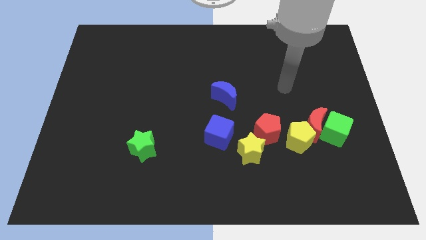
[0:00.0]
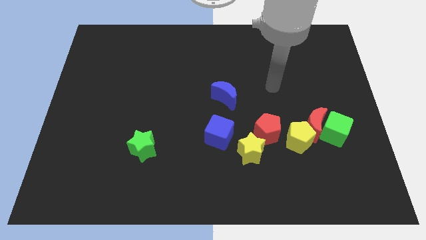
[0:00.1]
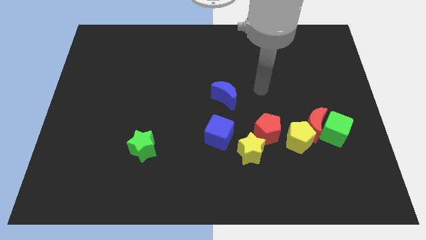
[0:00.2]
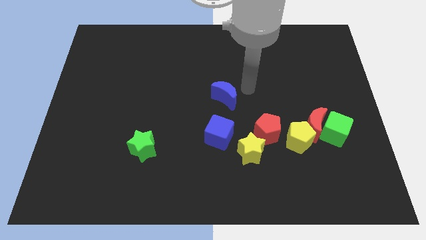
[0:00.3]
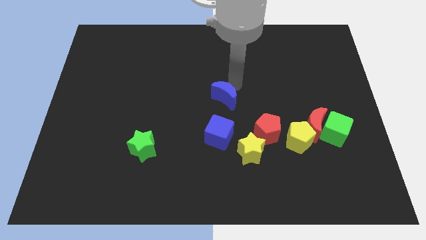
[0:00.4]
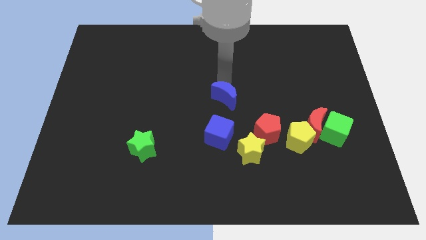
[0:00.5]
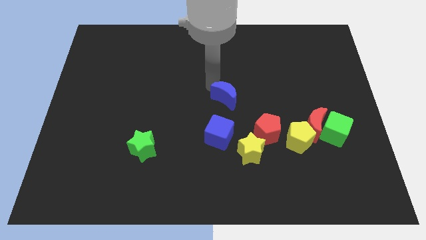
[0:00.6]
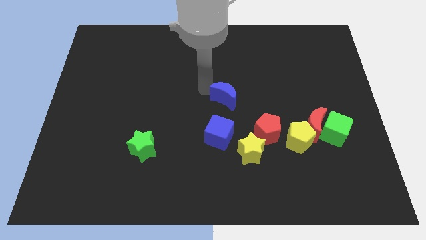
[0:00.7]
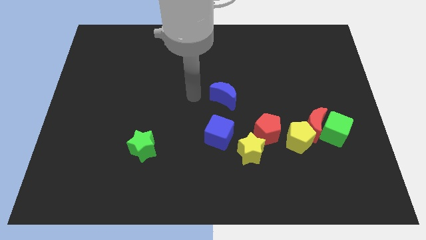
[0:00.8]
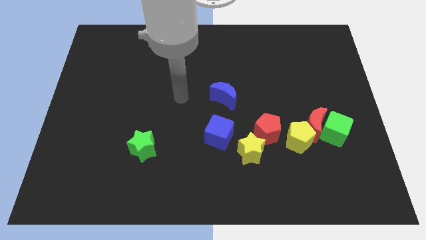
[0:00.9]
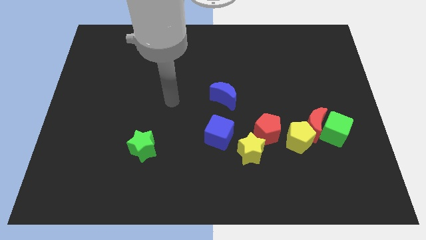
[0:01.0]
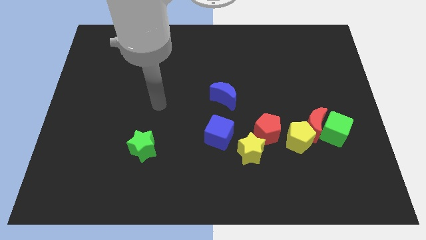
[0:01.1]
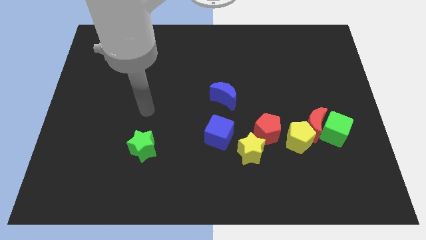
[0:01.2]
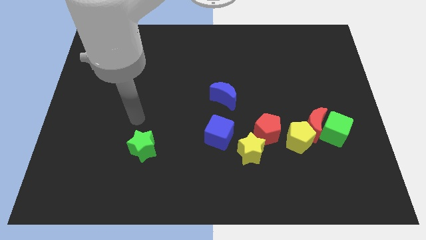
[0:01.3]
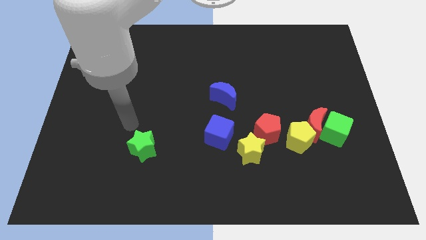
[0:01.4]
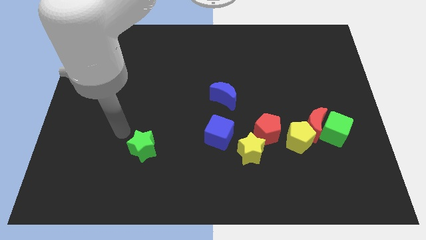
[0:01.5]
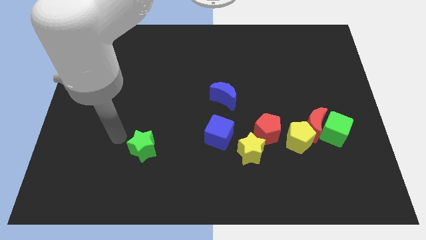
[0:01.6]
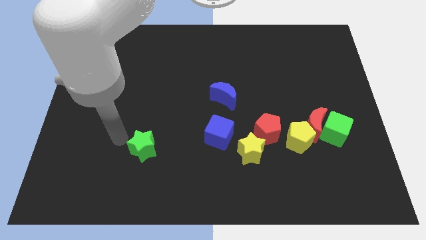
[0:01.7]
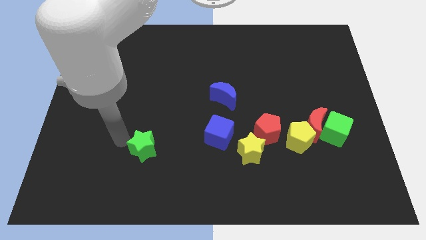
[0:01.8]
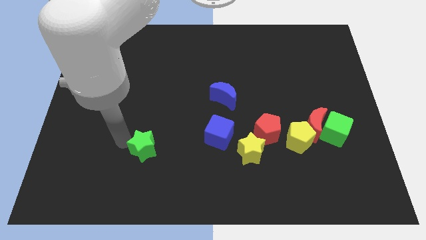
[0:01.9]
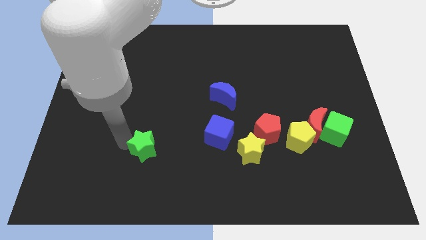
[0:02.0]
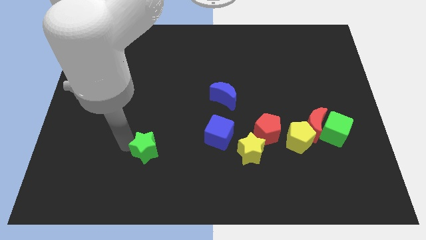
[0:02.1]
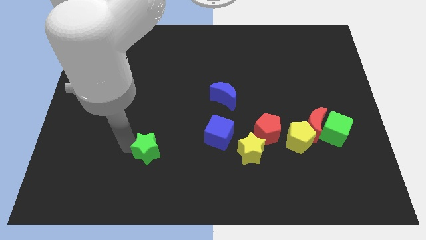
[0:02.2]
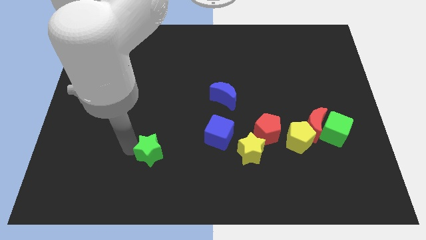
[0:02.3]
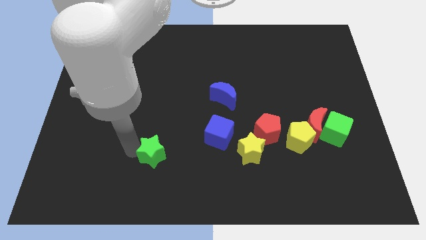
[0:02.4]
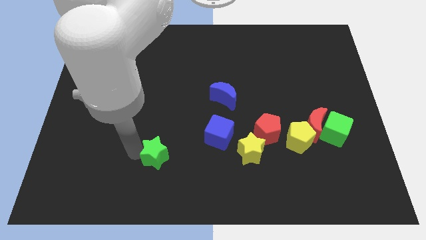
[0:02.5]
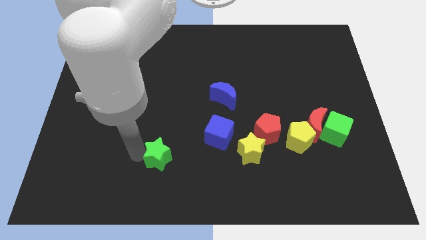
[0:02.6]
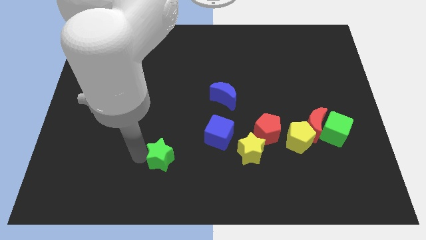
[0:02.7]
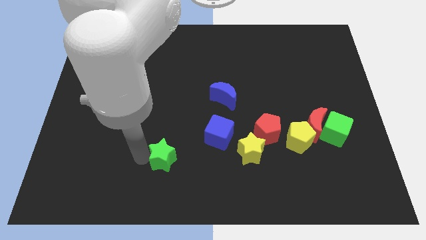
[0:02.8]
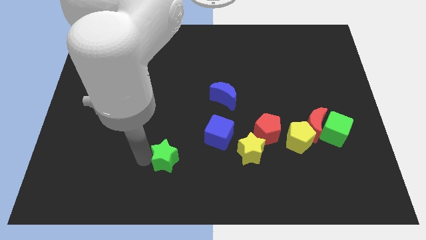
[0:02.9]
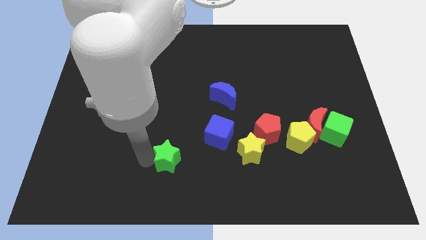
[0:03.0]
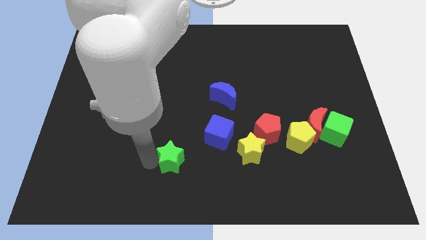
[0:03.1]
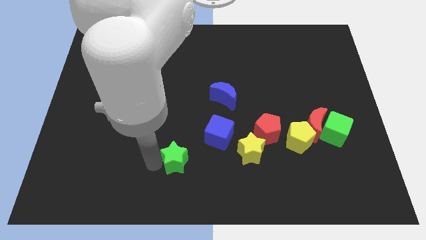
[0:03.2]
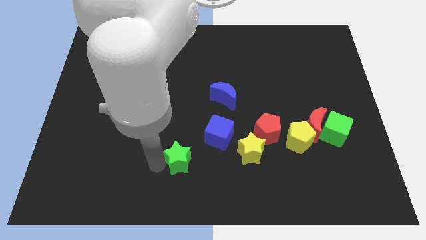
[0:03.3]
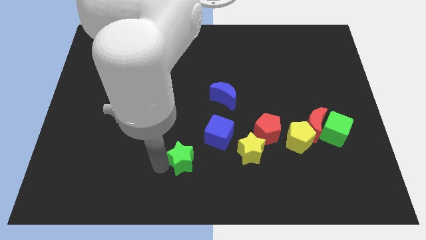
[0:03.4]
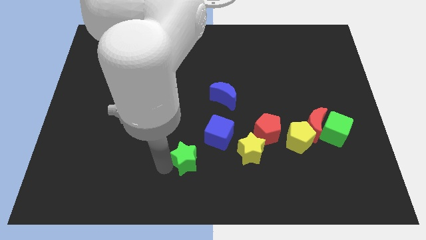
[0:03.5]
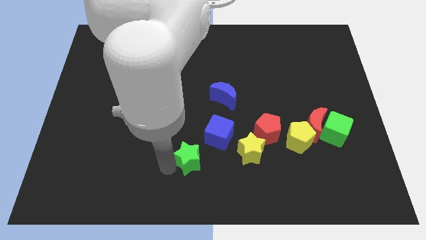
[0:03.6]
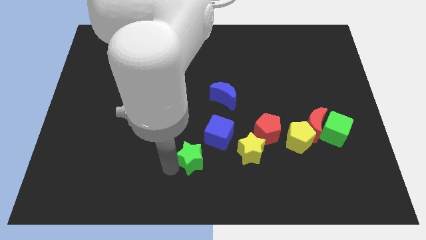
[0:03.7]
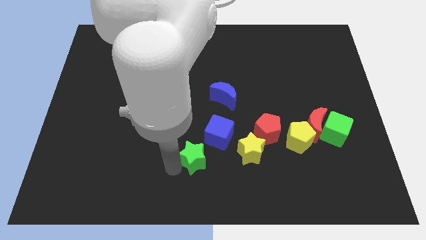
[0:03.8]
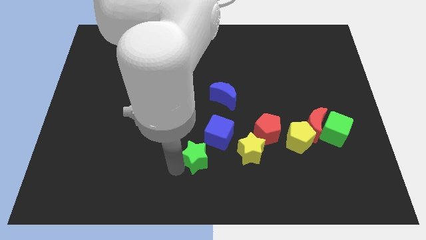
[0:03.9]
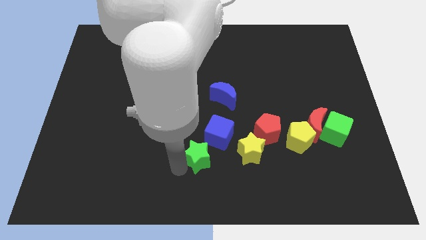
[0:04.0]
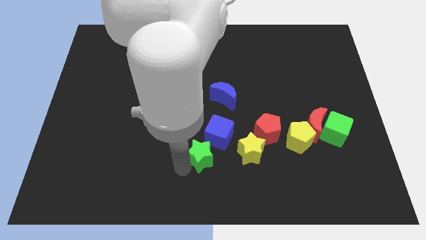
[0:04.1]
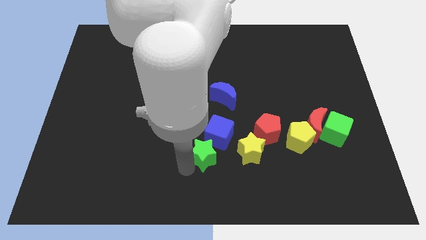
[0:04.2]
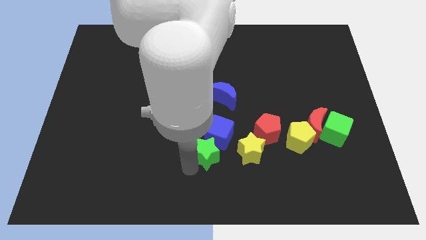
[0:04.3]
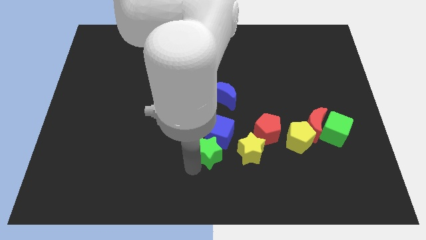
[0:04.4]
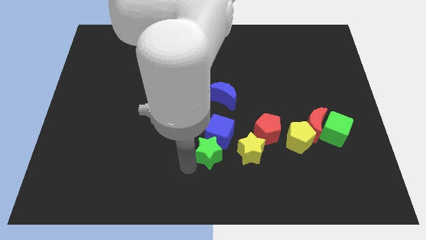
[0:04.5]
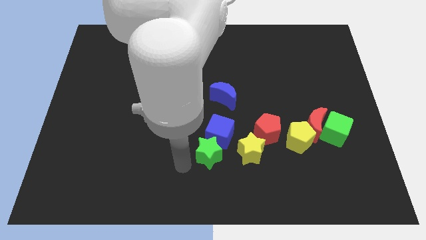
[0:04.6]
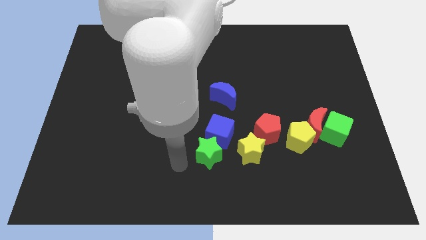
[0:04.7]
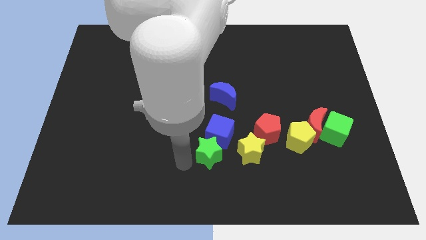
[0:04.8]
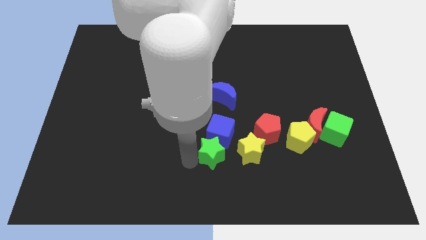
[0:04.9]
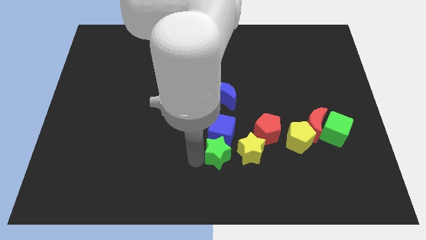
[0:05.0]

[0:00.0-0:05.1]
put the green star to the bottom side of the blue moon

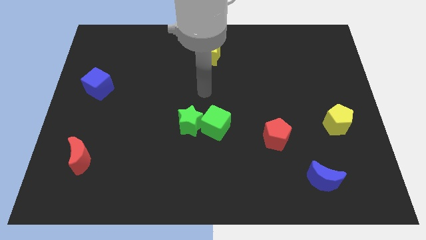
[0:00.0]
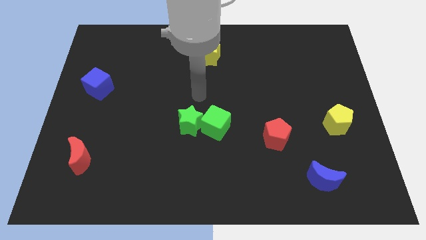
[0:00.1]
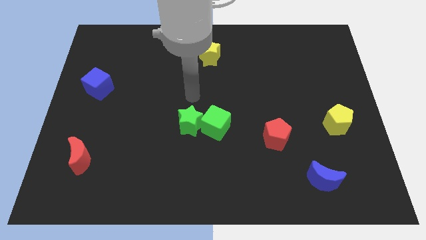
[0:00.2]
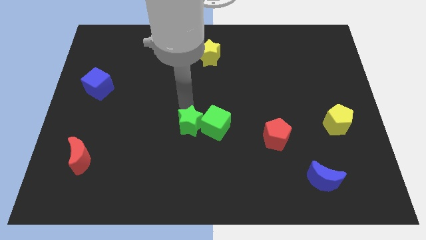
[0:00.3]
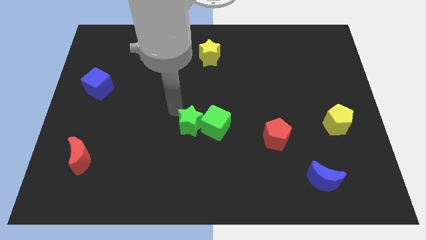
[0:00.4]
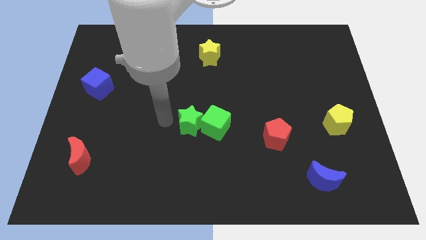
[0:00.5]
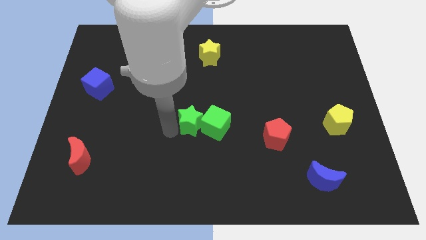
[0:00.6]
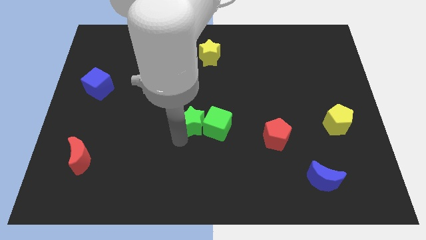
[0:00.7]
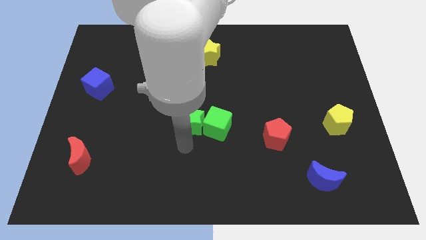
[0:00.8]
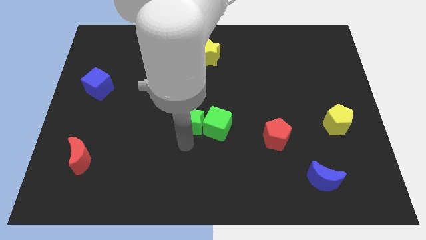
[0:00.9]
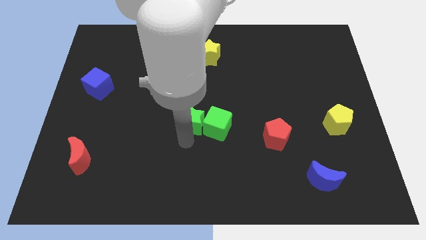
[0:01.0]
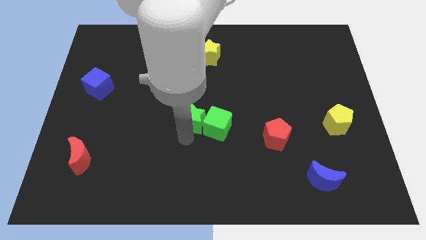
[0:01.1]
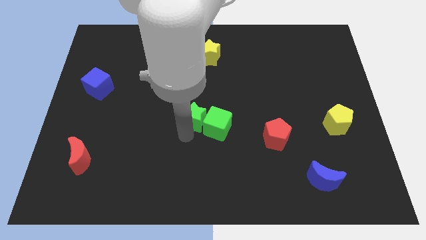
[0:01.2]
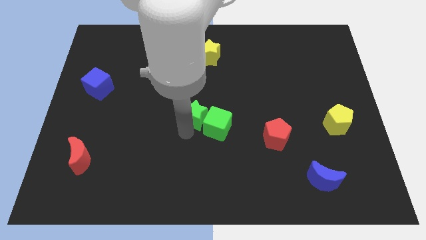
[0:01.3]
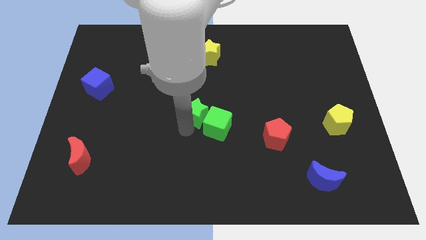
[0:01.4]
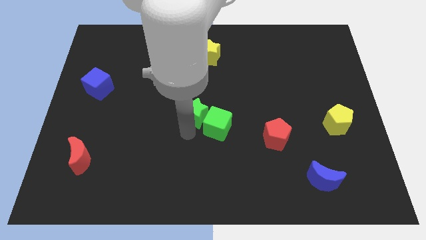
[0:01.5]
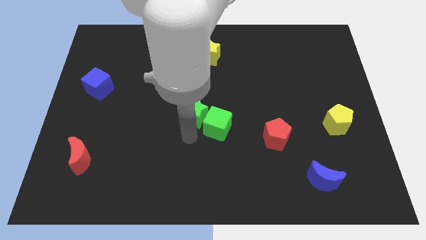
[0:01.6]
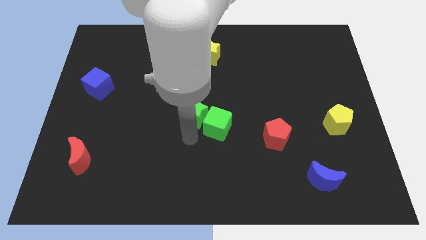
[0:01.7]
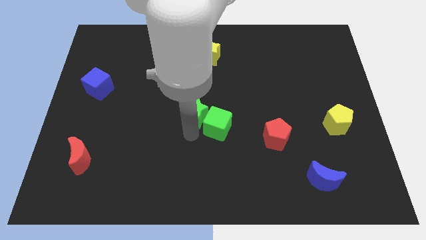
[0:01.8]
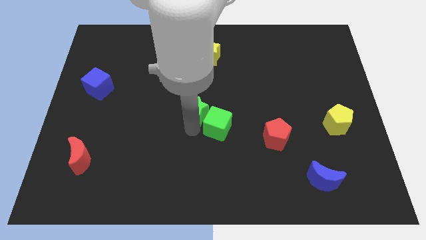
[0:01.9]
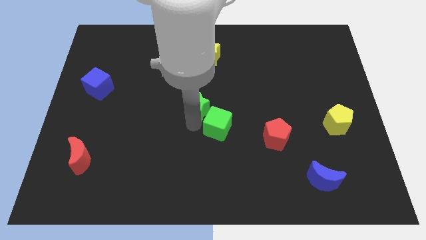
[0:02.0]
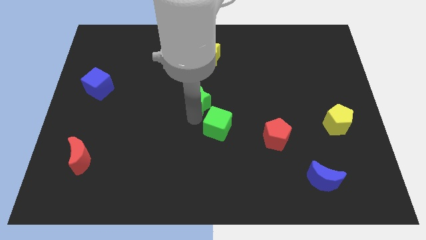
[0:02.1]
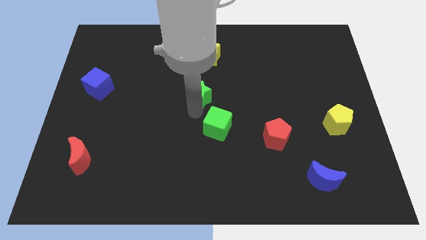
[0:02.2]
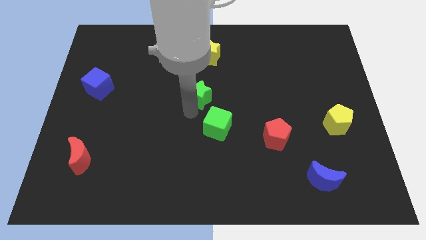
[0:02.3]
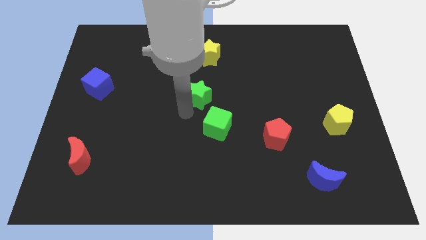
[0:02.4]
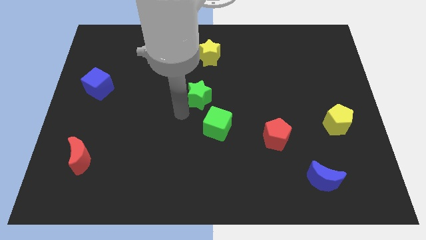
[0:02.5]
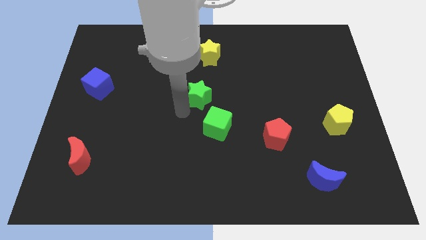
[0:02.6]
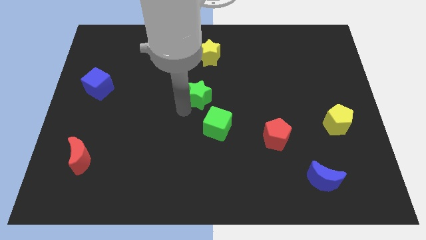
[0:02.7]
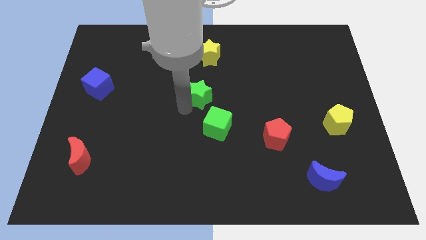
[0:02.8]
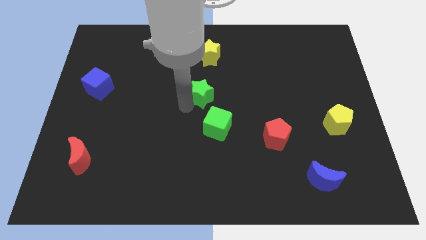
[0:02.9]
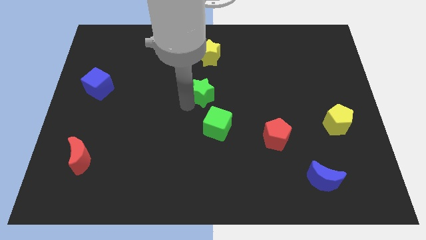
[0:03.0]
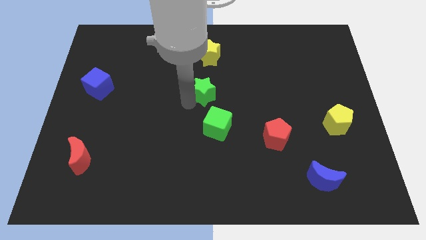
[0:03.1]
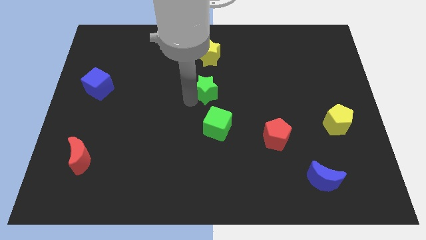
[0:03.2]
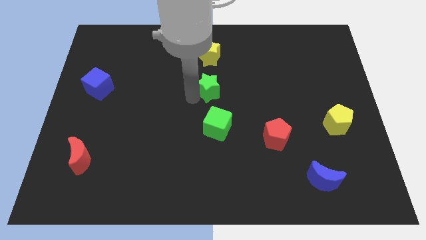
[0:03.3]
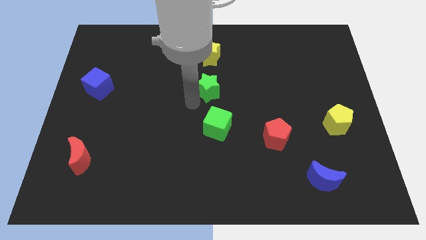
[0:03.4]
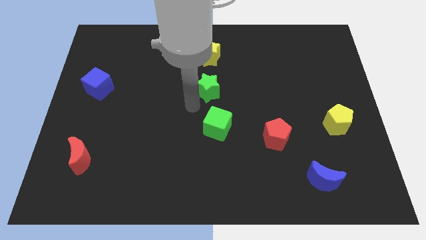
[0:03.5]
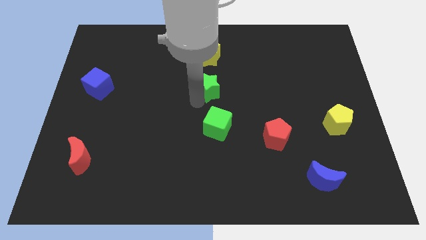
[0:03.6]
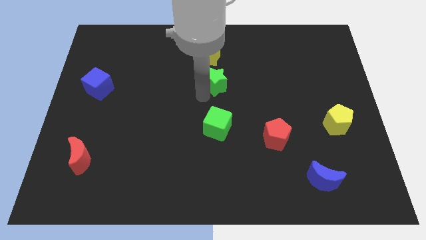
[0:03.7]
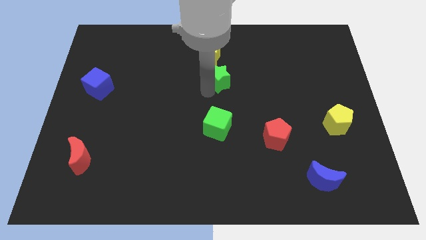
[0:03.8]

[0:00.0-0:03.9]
put the green star to the bottom right of the yellow star
